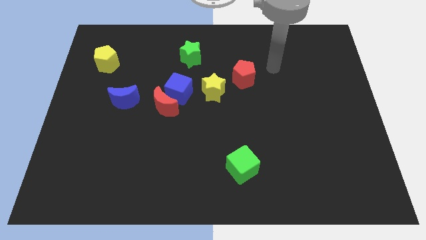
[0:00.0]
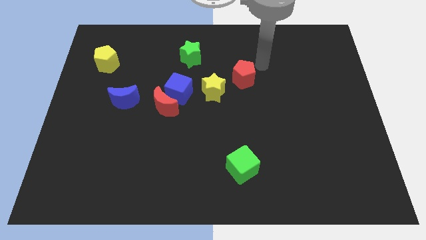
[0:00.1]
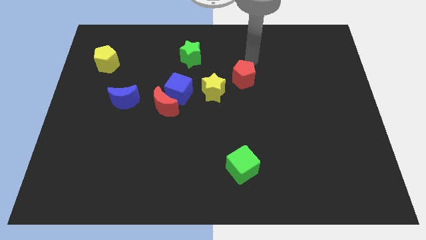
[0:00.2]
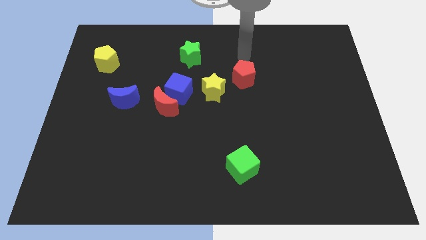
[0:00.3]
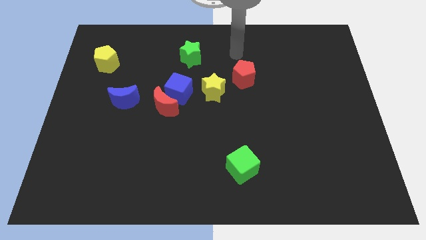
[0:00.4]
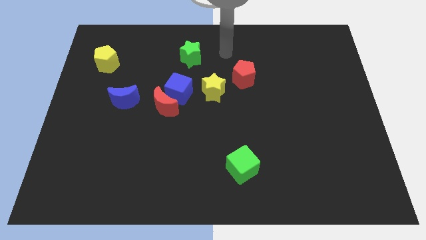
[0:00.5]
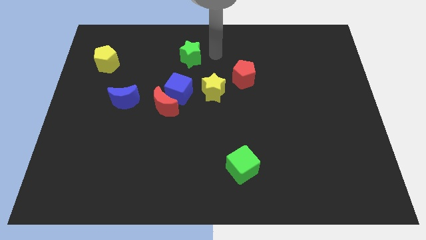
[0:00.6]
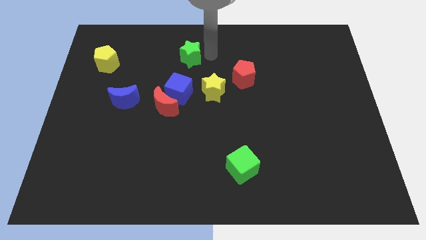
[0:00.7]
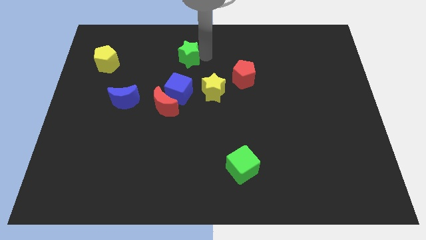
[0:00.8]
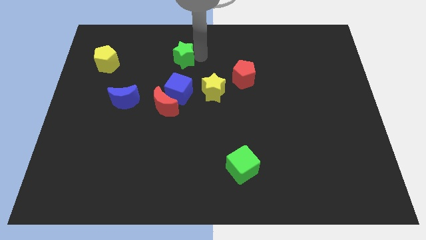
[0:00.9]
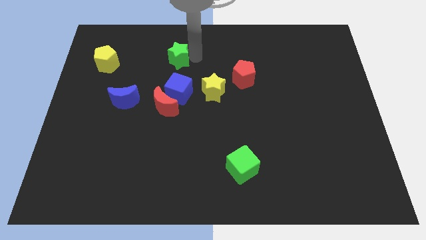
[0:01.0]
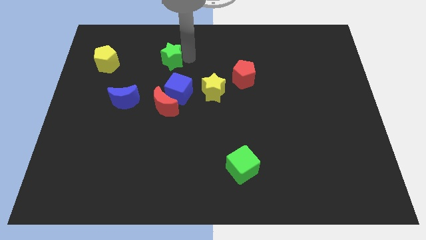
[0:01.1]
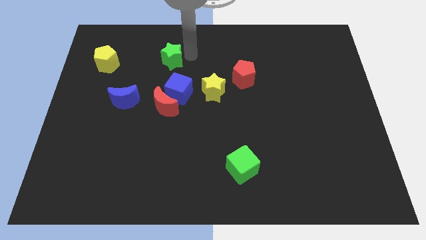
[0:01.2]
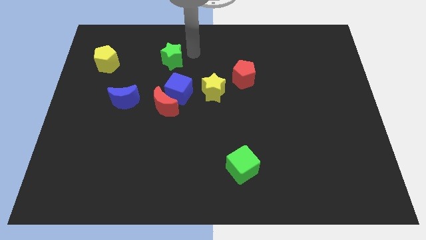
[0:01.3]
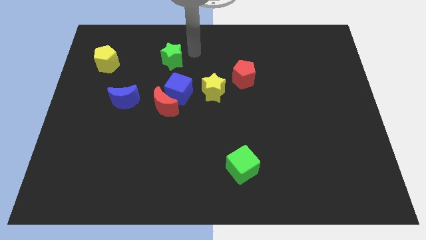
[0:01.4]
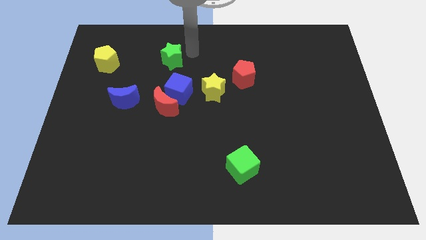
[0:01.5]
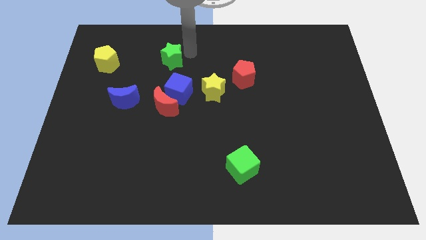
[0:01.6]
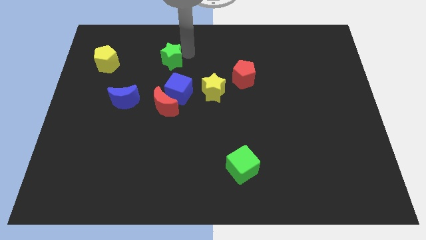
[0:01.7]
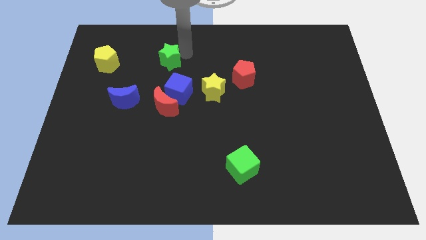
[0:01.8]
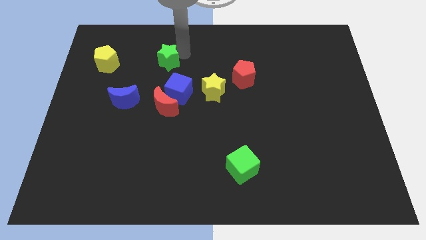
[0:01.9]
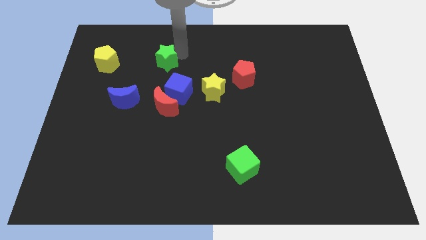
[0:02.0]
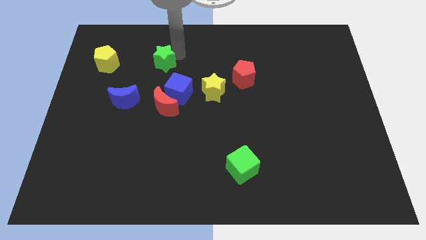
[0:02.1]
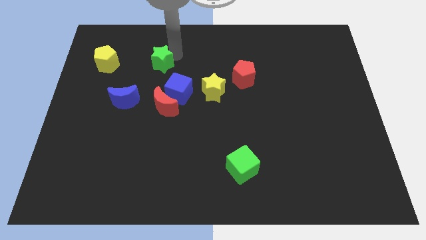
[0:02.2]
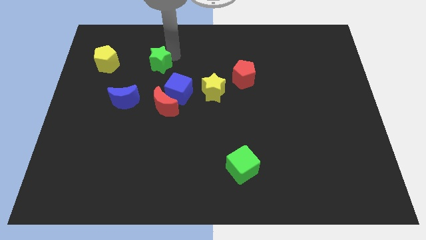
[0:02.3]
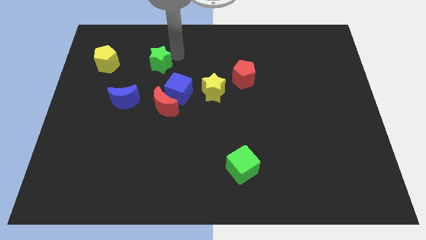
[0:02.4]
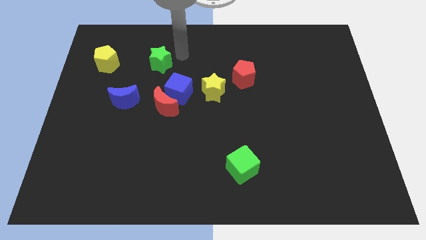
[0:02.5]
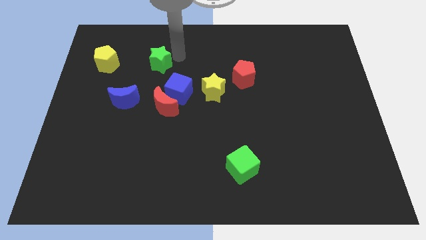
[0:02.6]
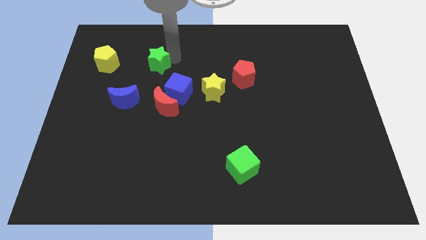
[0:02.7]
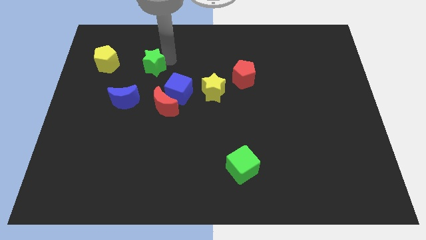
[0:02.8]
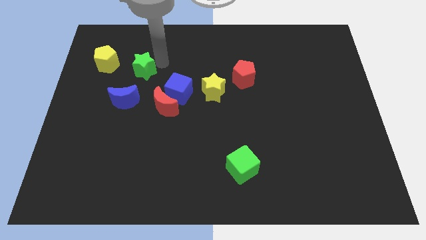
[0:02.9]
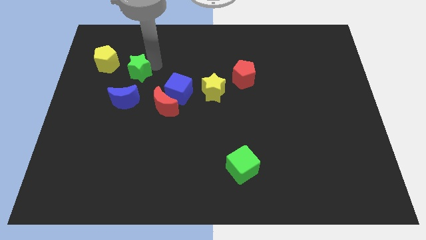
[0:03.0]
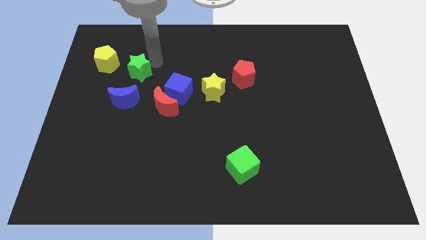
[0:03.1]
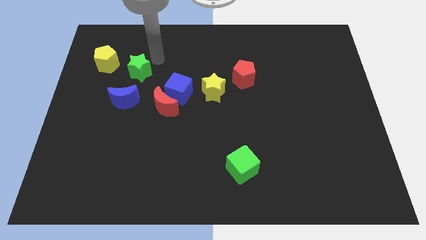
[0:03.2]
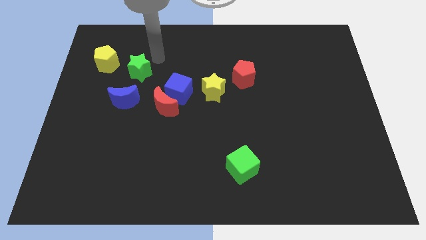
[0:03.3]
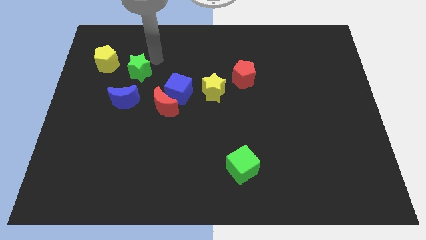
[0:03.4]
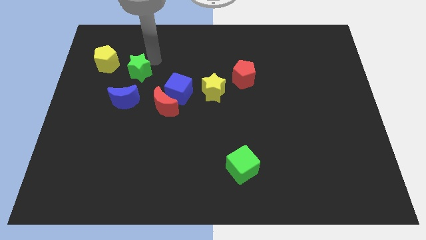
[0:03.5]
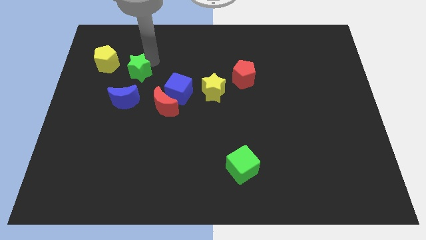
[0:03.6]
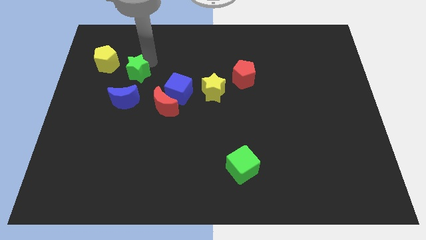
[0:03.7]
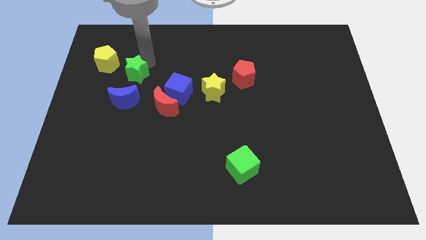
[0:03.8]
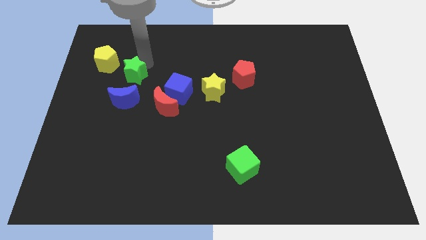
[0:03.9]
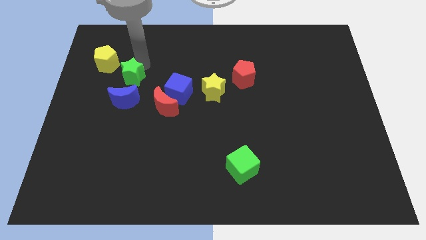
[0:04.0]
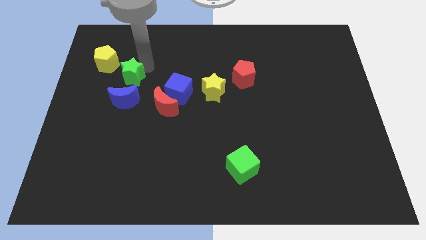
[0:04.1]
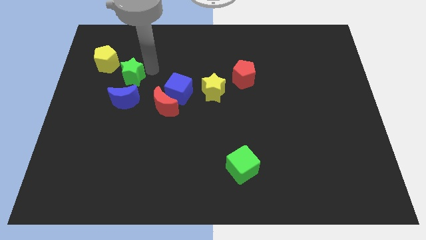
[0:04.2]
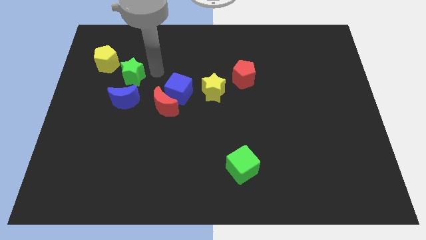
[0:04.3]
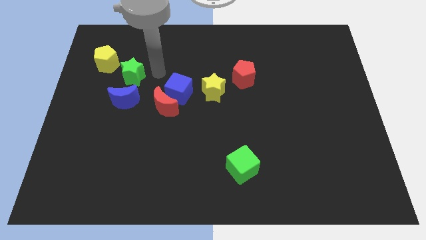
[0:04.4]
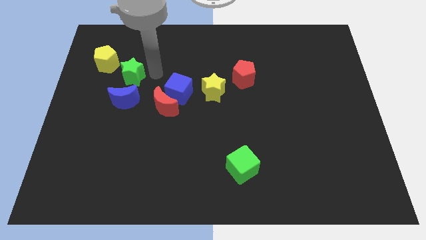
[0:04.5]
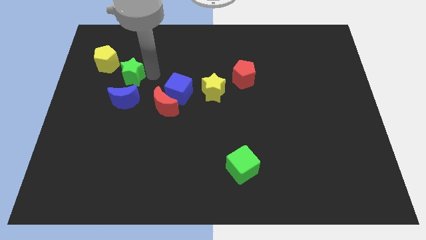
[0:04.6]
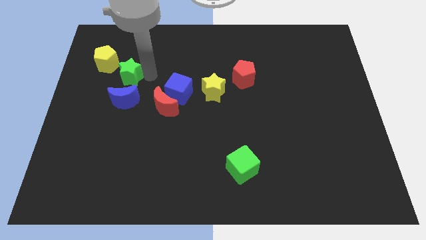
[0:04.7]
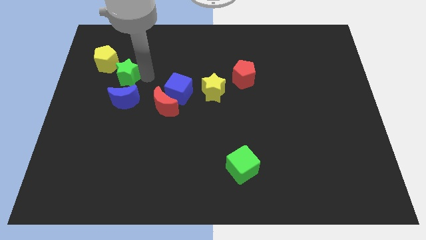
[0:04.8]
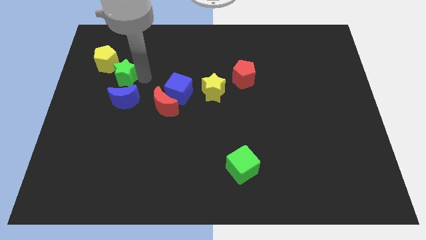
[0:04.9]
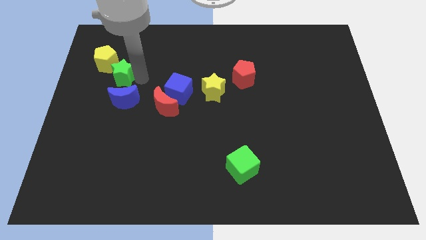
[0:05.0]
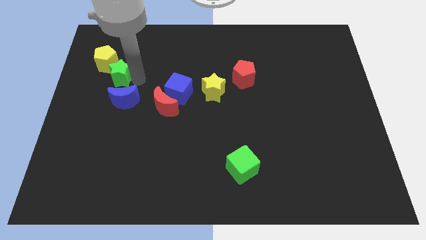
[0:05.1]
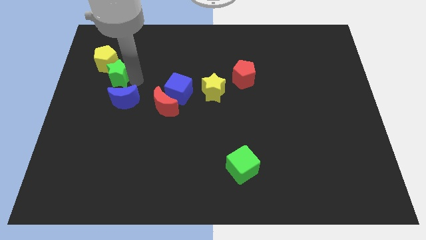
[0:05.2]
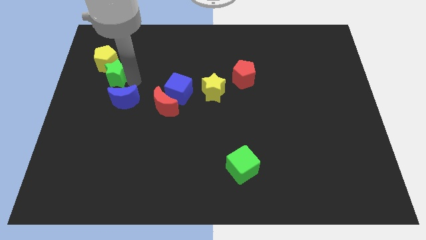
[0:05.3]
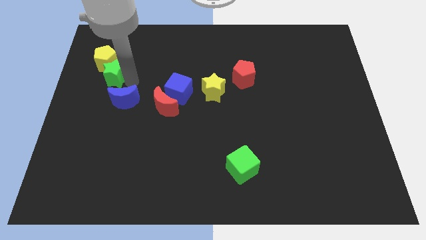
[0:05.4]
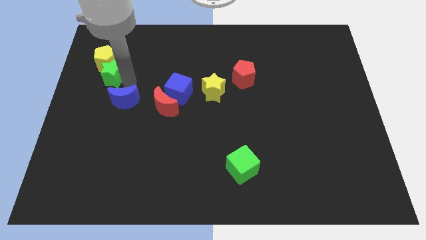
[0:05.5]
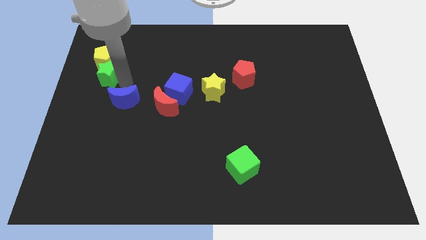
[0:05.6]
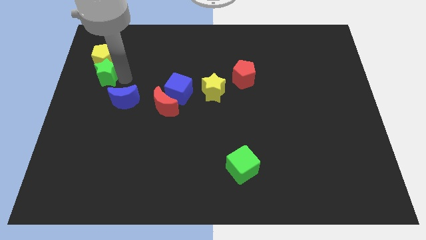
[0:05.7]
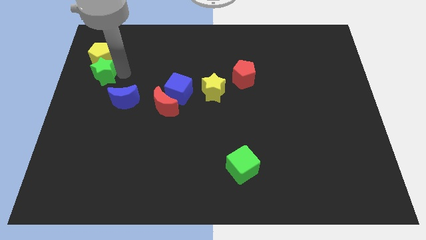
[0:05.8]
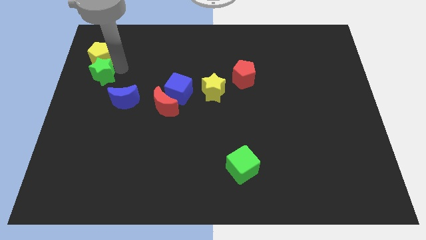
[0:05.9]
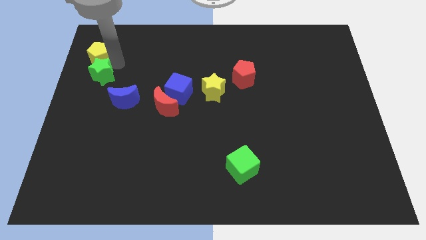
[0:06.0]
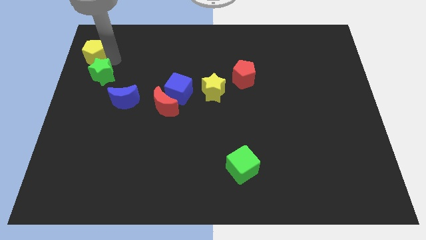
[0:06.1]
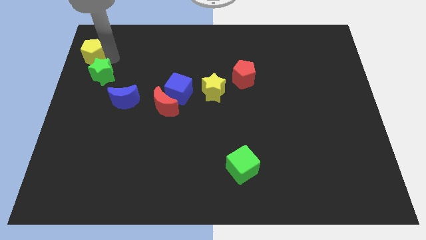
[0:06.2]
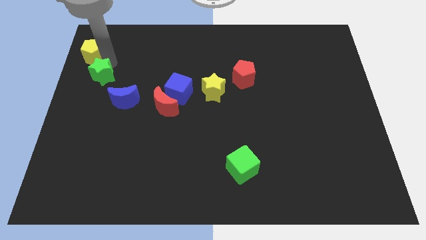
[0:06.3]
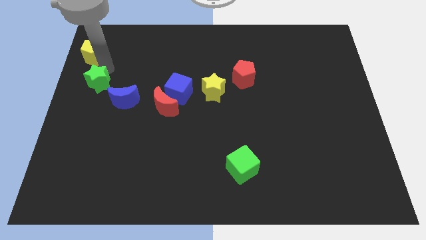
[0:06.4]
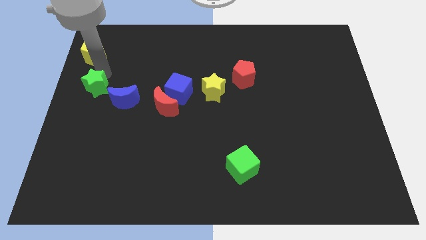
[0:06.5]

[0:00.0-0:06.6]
push the green star downwards and left diagonally

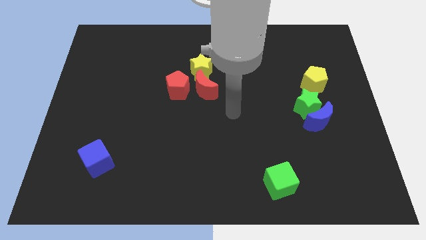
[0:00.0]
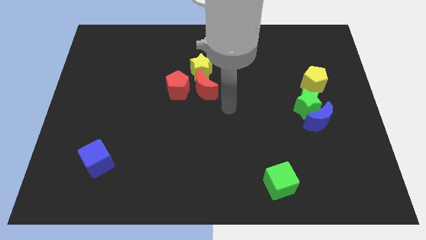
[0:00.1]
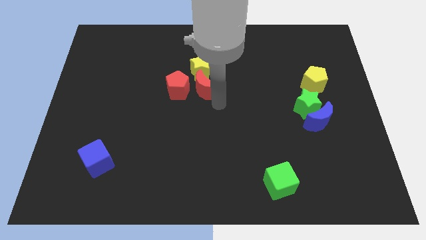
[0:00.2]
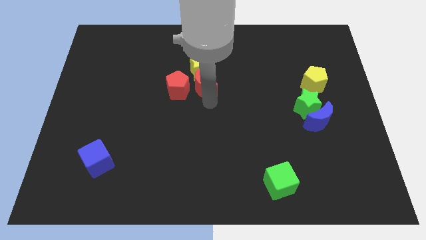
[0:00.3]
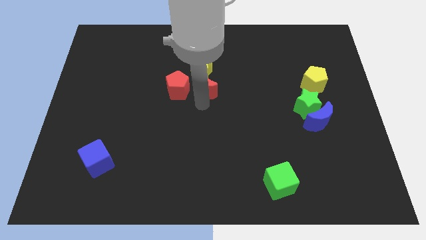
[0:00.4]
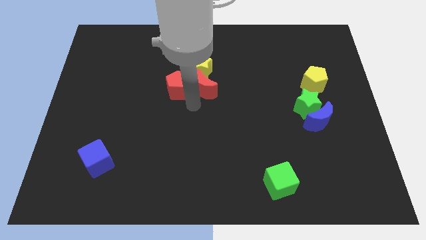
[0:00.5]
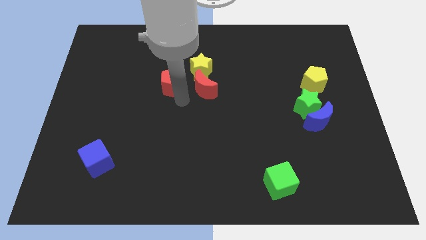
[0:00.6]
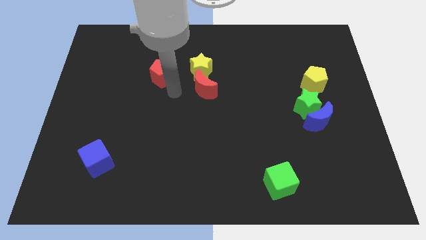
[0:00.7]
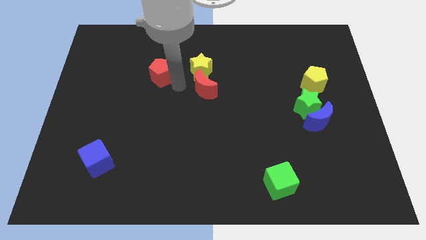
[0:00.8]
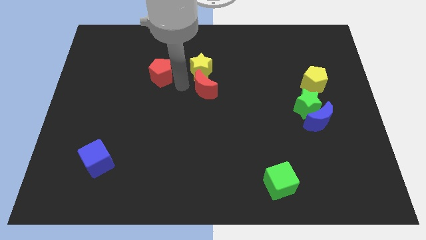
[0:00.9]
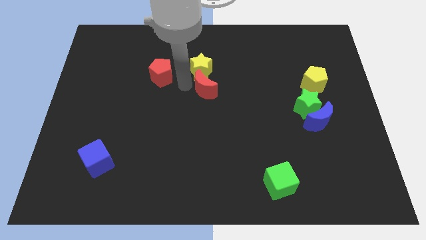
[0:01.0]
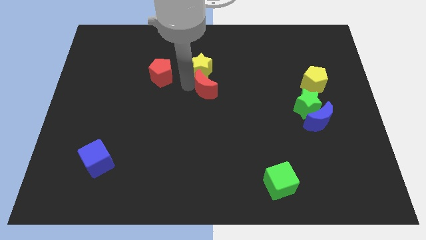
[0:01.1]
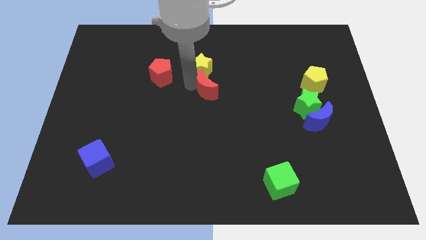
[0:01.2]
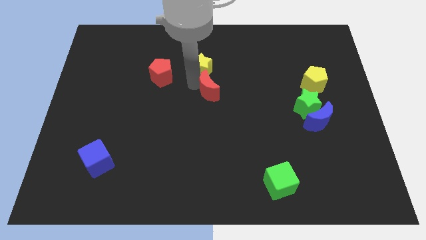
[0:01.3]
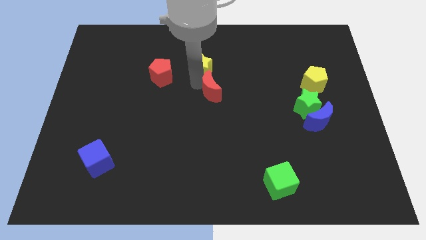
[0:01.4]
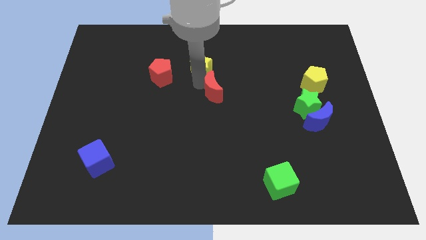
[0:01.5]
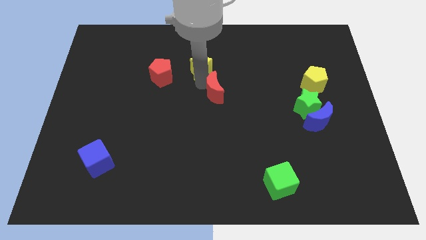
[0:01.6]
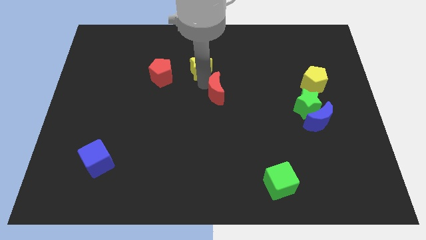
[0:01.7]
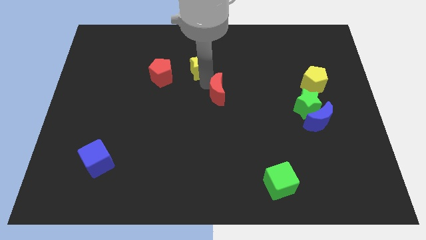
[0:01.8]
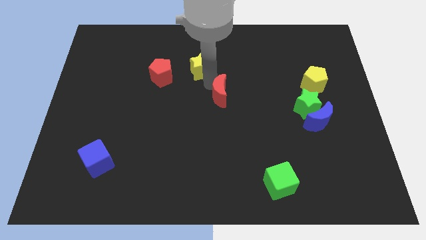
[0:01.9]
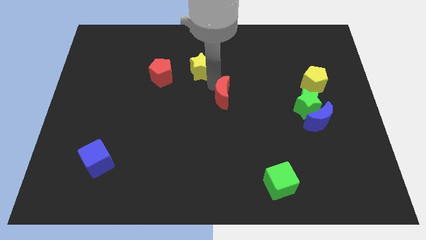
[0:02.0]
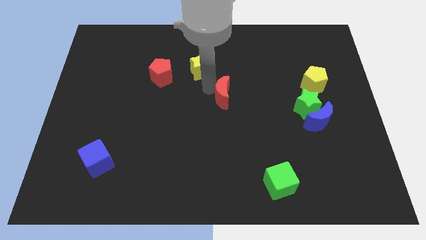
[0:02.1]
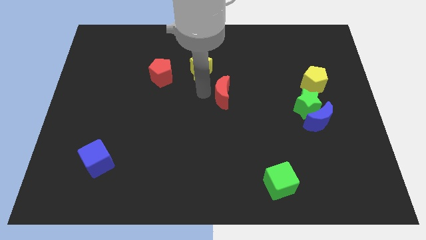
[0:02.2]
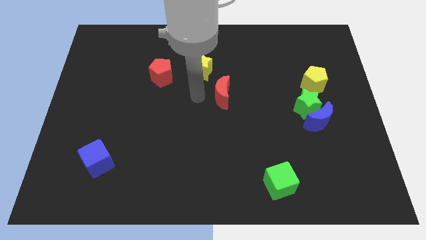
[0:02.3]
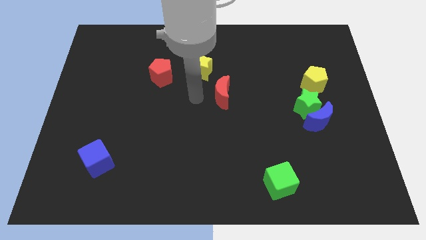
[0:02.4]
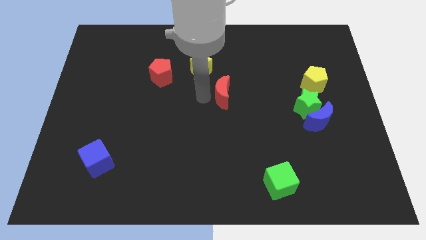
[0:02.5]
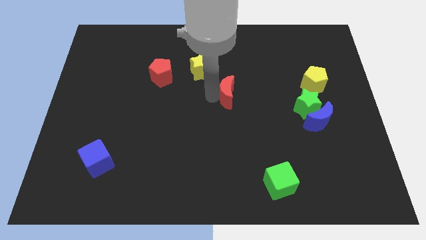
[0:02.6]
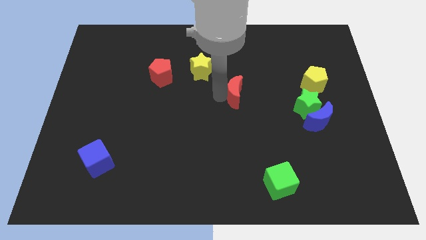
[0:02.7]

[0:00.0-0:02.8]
move the red moon to the right a bit
